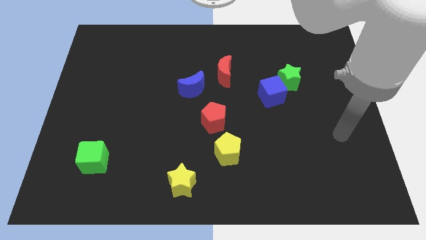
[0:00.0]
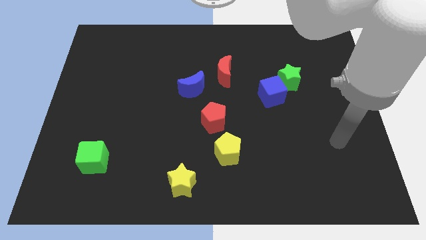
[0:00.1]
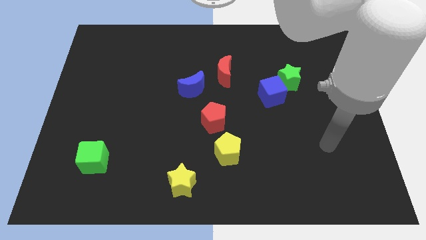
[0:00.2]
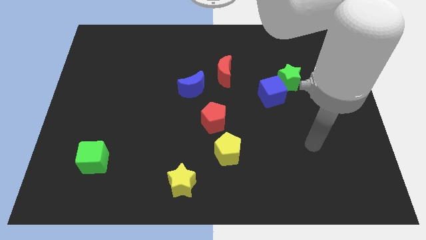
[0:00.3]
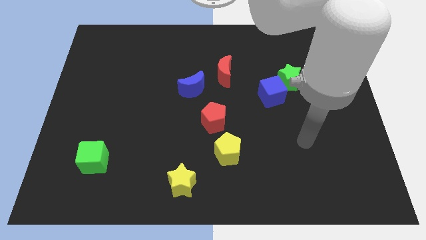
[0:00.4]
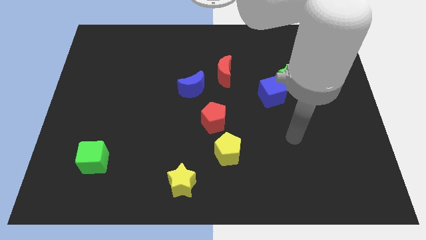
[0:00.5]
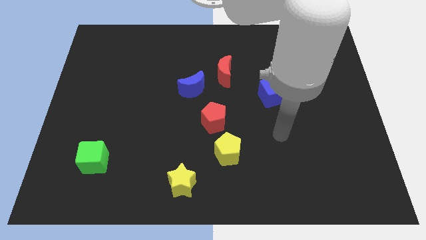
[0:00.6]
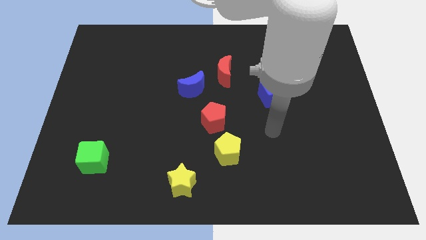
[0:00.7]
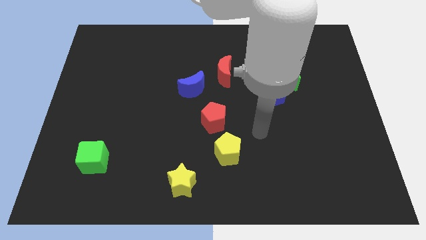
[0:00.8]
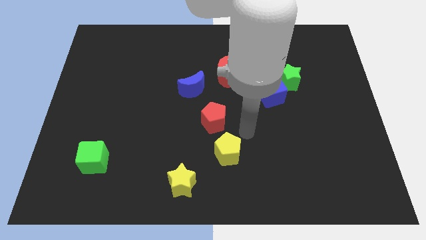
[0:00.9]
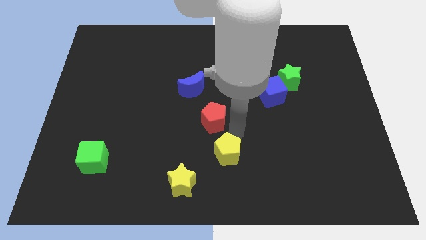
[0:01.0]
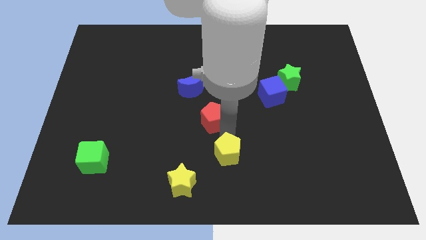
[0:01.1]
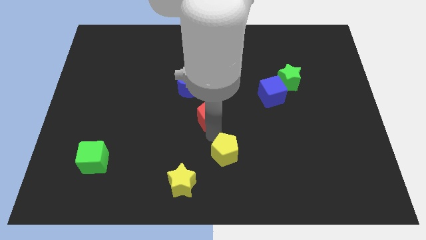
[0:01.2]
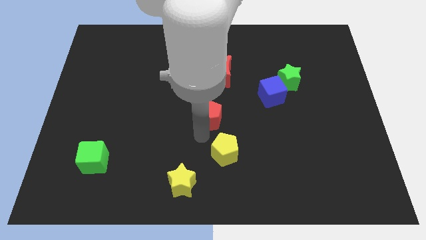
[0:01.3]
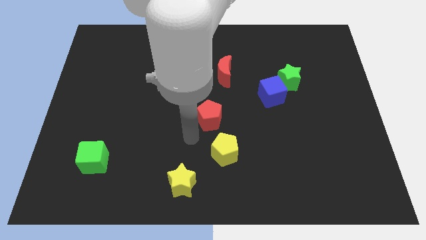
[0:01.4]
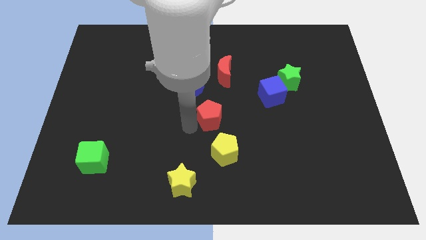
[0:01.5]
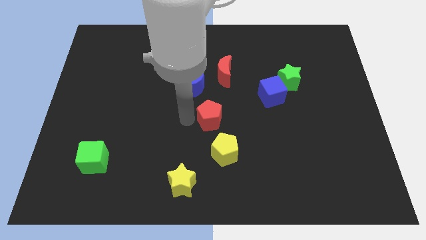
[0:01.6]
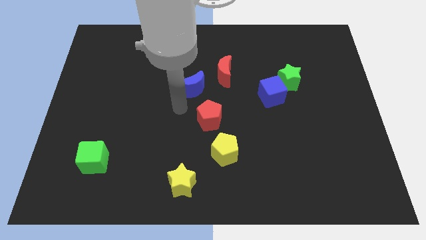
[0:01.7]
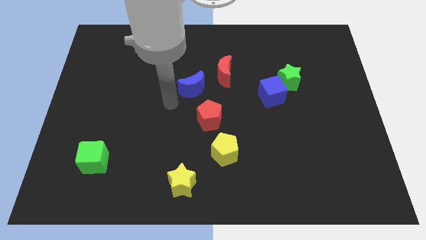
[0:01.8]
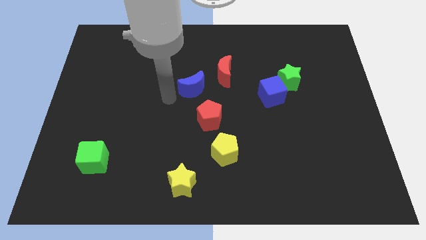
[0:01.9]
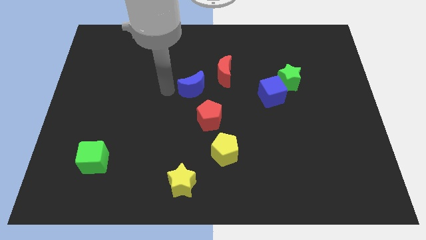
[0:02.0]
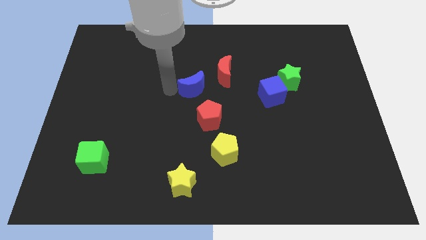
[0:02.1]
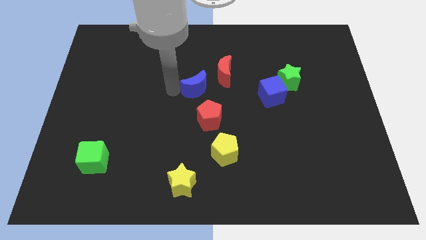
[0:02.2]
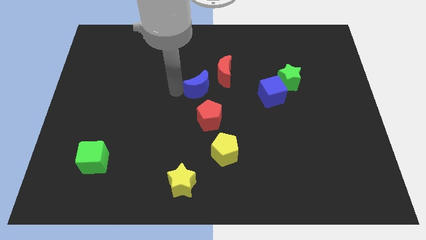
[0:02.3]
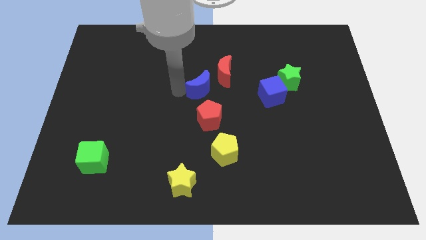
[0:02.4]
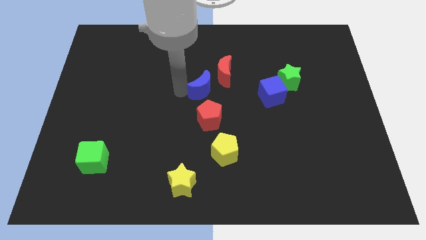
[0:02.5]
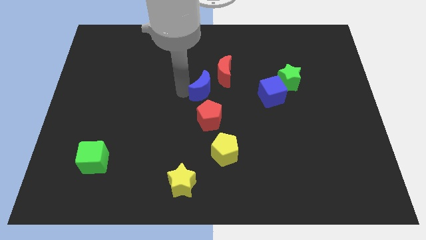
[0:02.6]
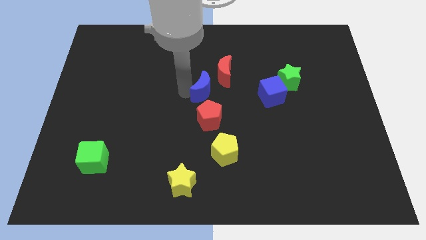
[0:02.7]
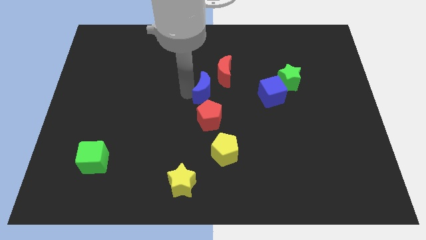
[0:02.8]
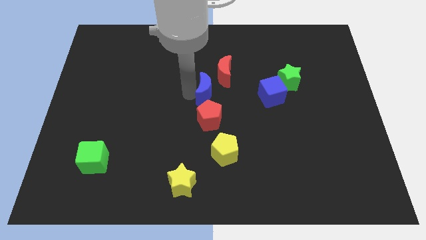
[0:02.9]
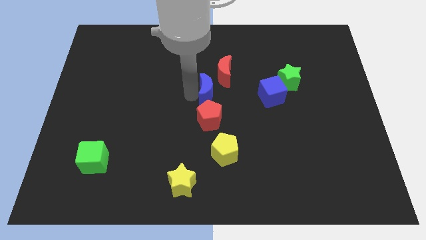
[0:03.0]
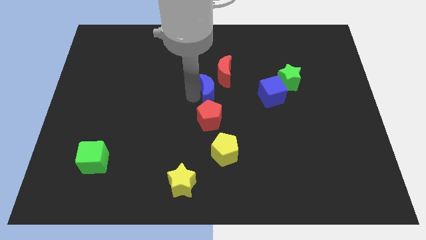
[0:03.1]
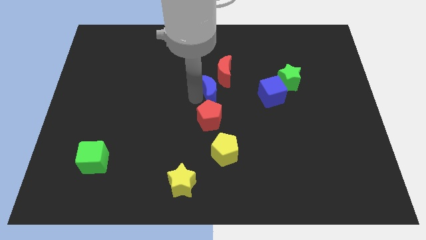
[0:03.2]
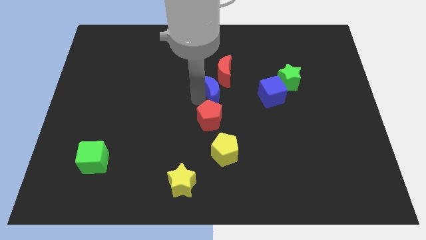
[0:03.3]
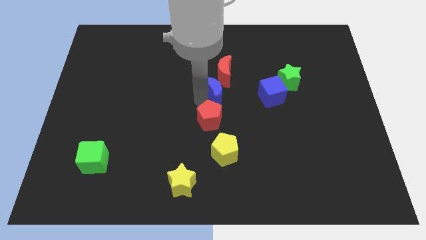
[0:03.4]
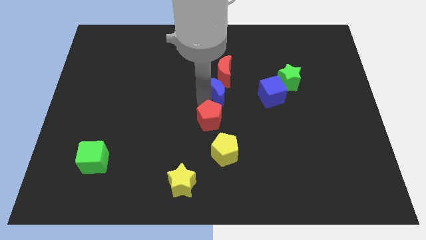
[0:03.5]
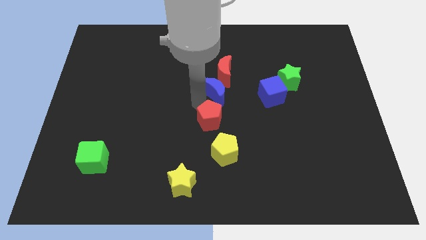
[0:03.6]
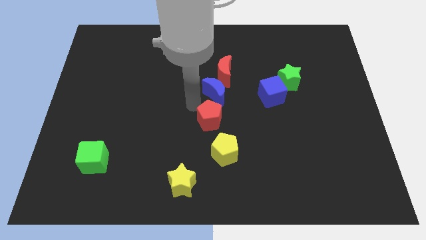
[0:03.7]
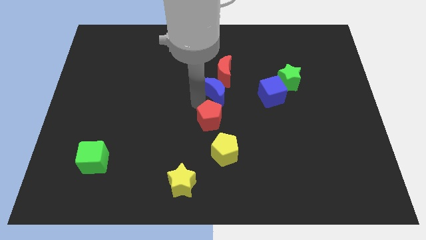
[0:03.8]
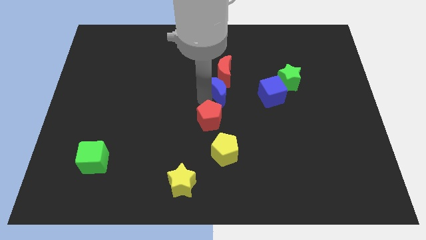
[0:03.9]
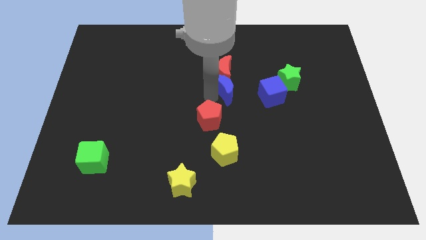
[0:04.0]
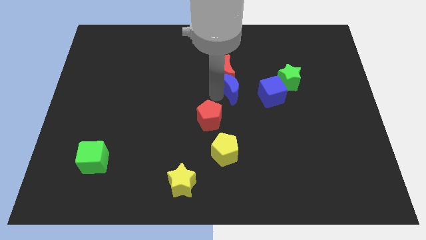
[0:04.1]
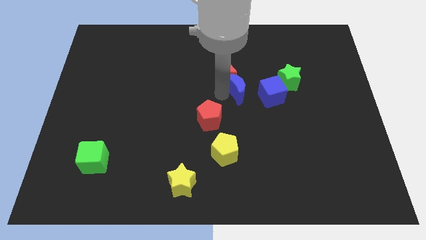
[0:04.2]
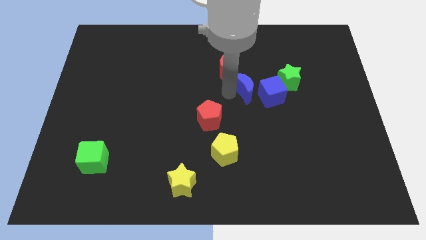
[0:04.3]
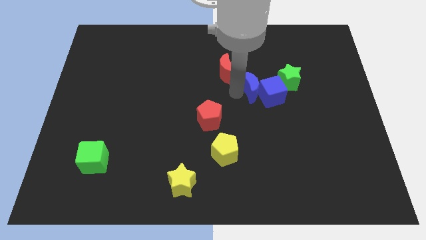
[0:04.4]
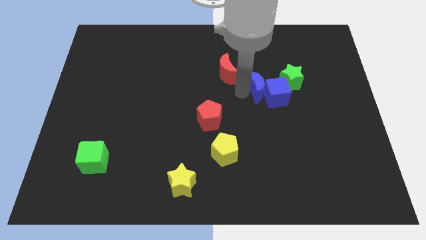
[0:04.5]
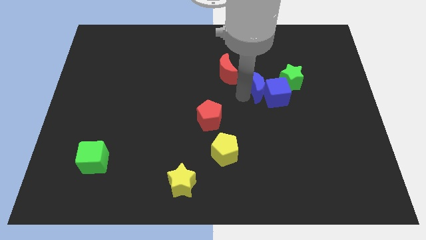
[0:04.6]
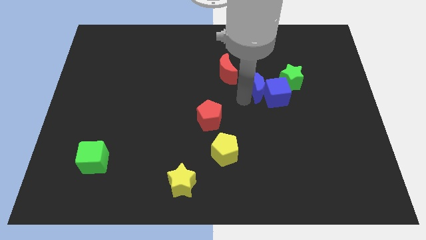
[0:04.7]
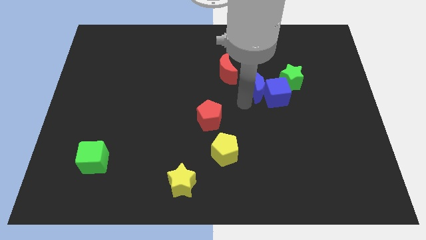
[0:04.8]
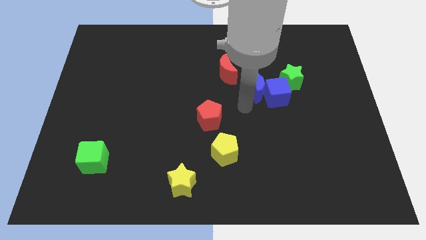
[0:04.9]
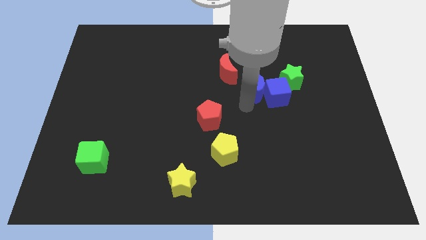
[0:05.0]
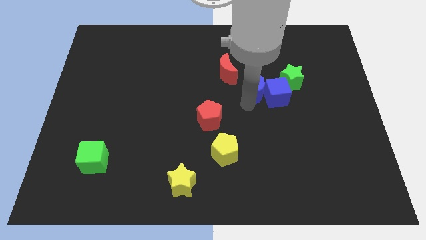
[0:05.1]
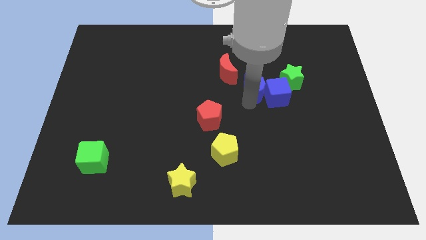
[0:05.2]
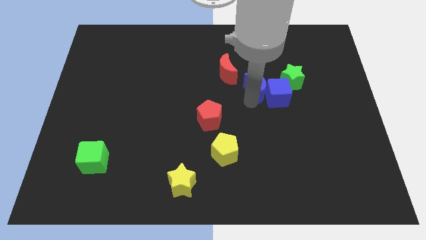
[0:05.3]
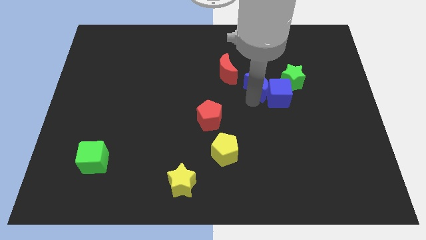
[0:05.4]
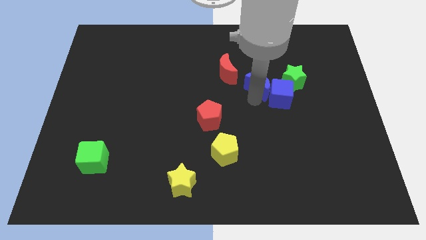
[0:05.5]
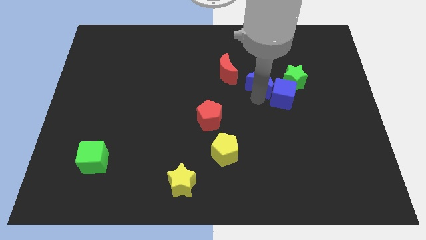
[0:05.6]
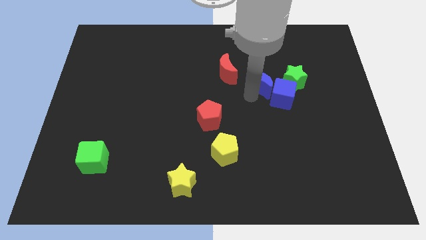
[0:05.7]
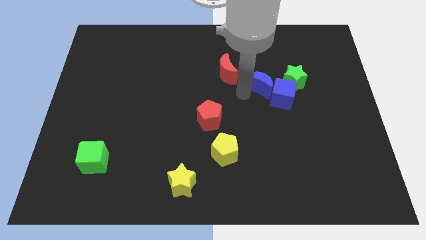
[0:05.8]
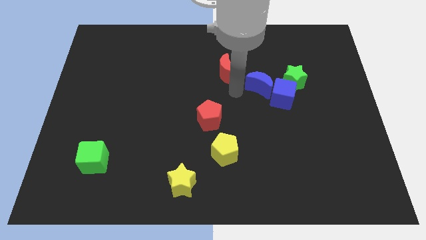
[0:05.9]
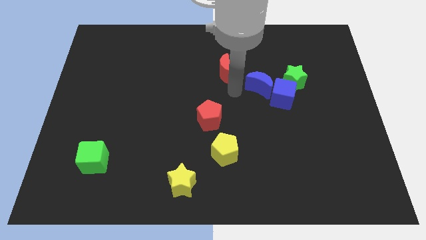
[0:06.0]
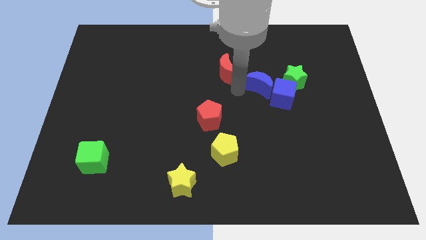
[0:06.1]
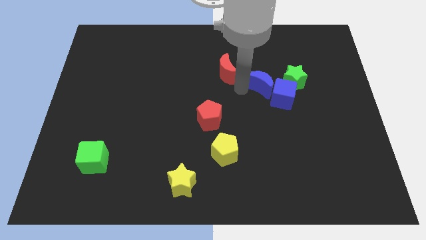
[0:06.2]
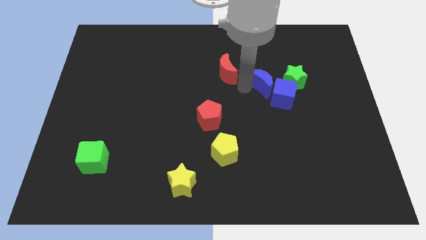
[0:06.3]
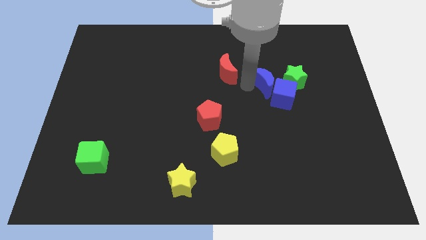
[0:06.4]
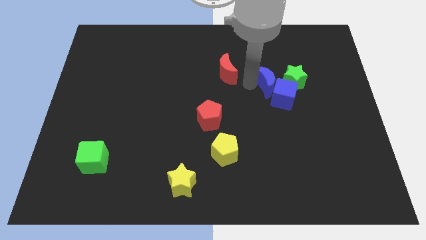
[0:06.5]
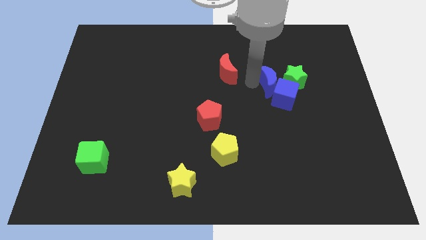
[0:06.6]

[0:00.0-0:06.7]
move the blue moon close to the green star

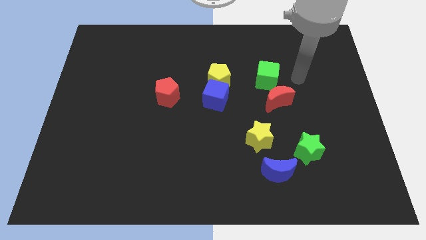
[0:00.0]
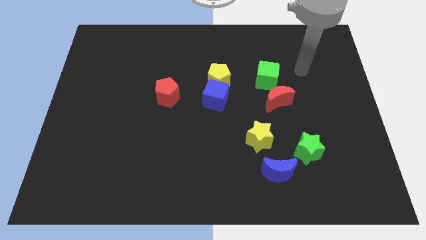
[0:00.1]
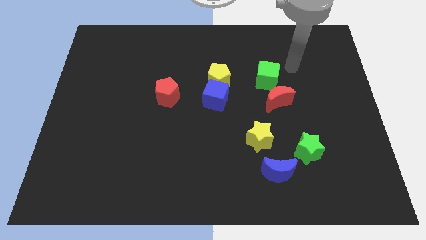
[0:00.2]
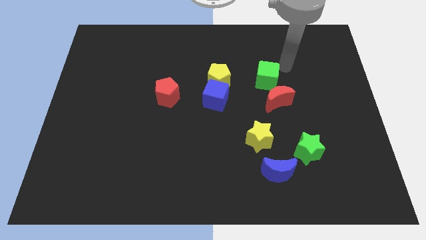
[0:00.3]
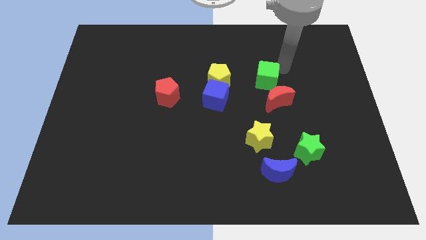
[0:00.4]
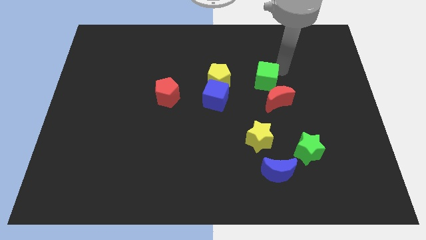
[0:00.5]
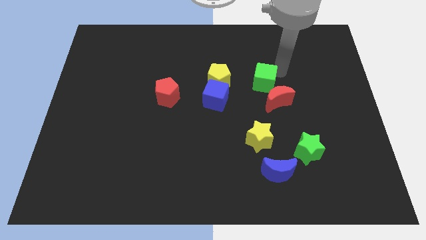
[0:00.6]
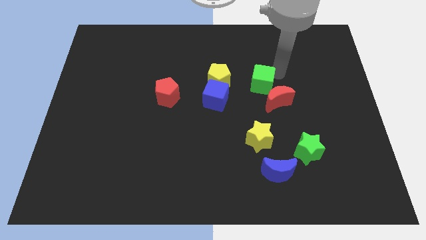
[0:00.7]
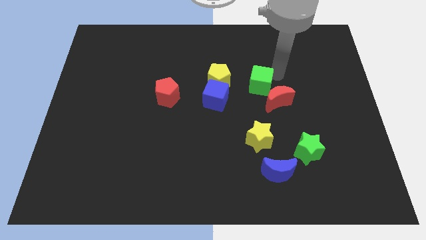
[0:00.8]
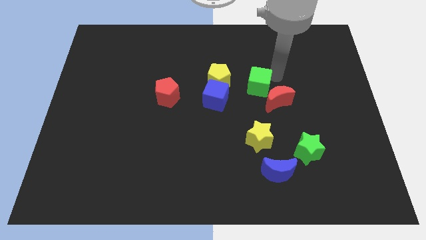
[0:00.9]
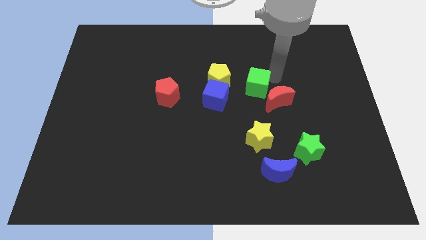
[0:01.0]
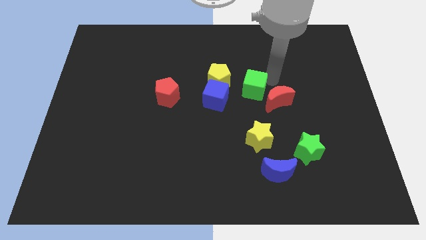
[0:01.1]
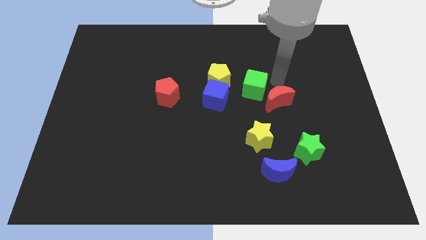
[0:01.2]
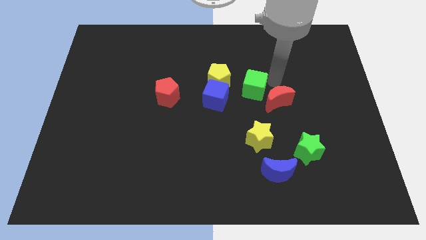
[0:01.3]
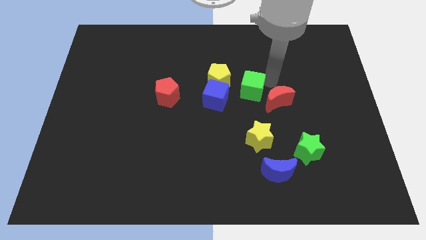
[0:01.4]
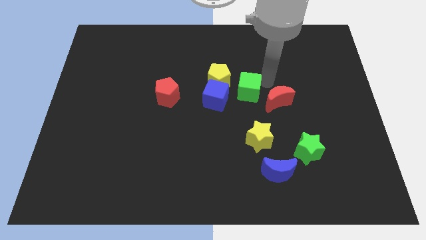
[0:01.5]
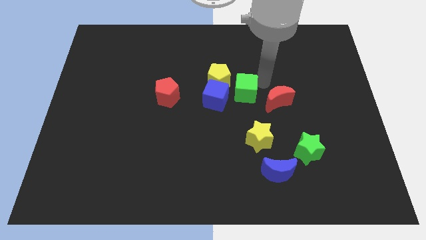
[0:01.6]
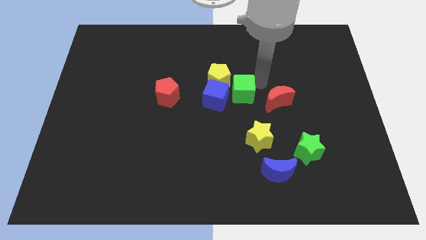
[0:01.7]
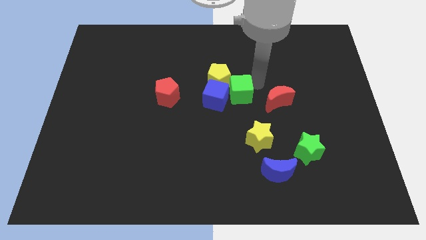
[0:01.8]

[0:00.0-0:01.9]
put the green cube close to the blue cube
